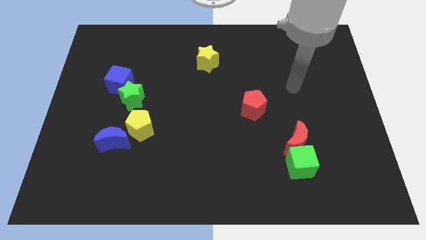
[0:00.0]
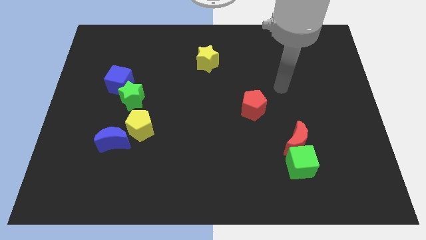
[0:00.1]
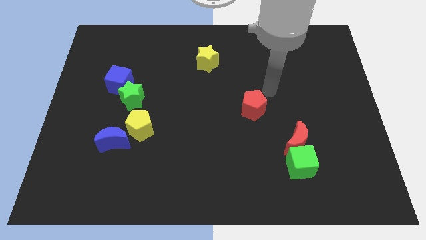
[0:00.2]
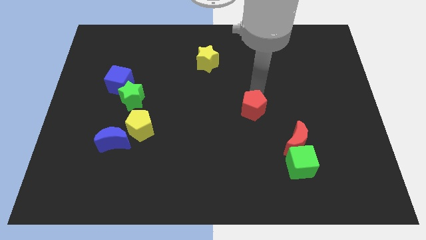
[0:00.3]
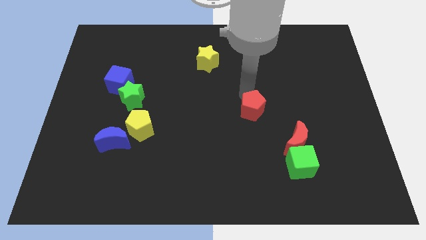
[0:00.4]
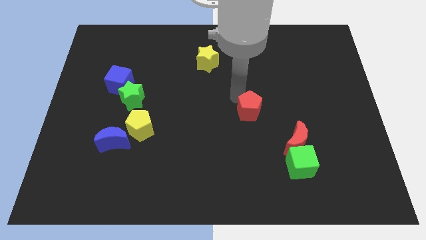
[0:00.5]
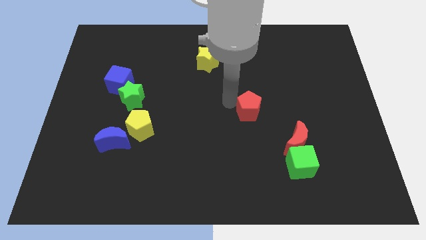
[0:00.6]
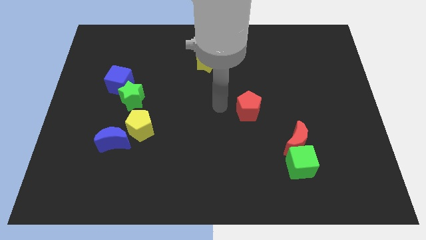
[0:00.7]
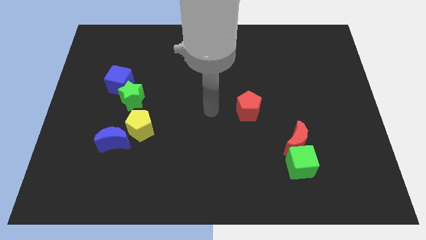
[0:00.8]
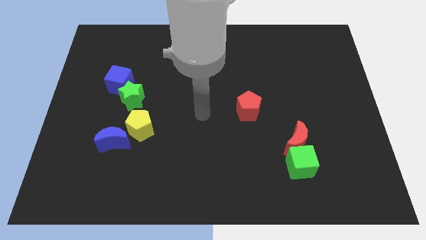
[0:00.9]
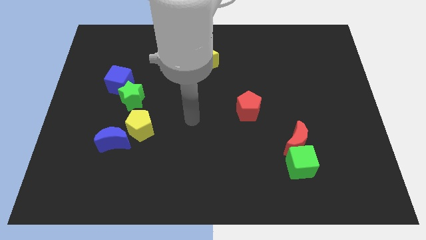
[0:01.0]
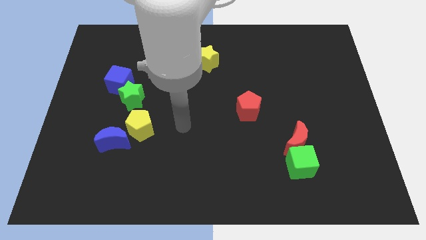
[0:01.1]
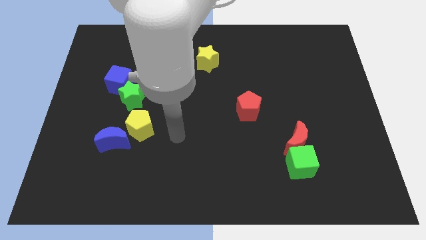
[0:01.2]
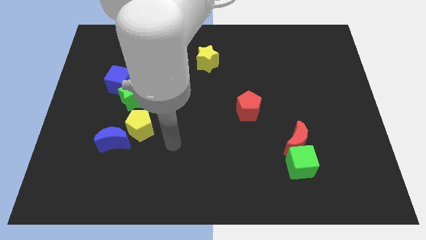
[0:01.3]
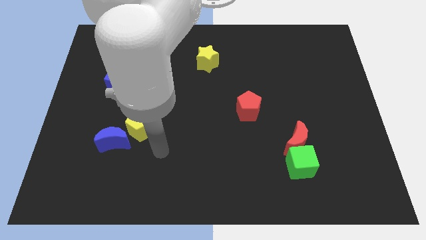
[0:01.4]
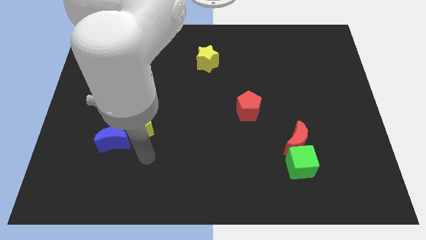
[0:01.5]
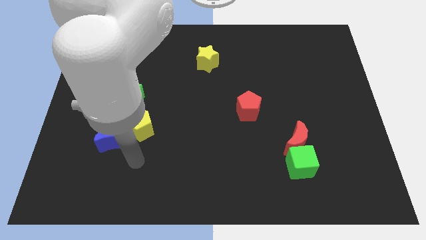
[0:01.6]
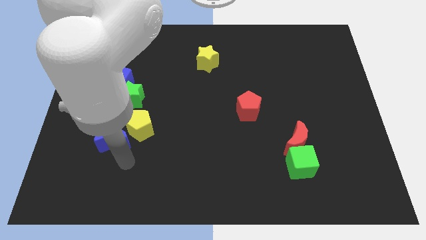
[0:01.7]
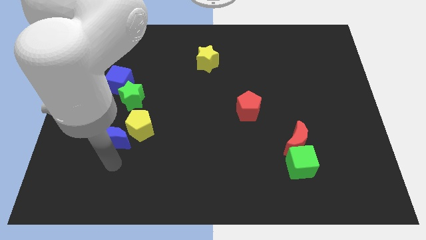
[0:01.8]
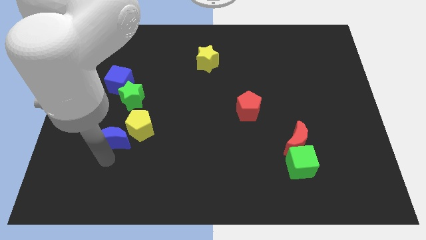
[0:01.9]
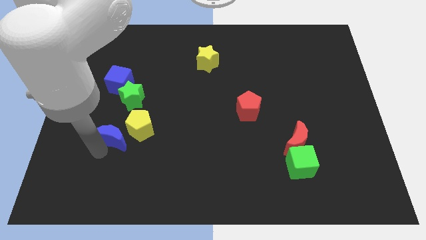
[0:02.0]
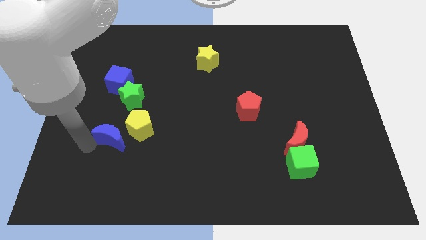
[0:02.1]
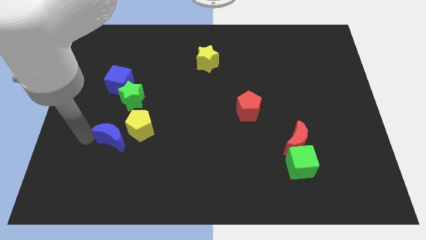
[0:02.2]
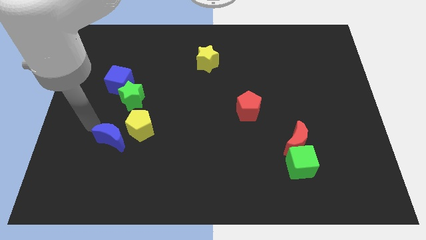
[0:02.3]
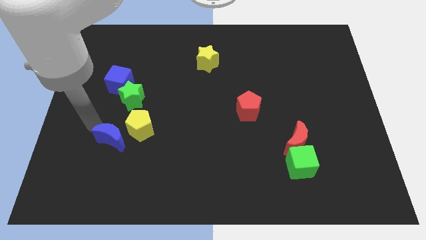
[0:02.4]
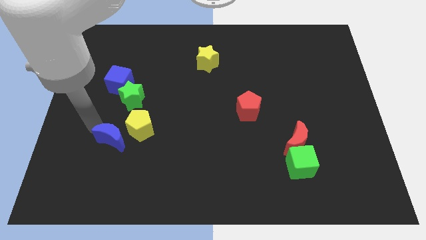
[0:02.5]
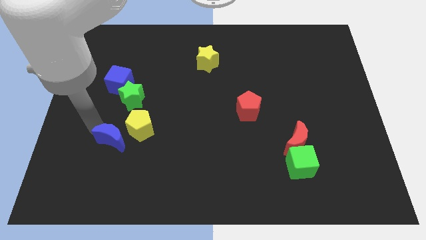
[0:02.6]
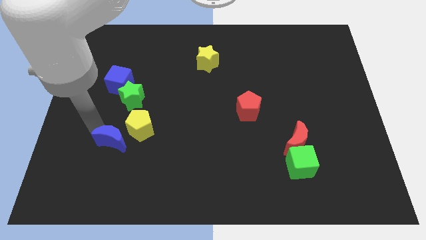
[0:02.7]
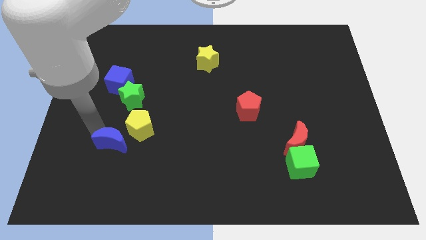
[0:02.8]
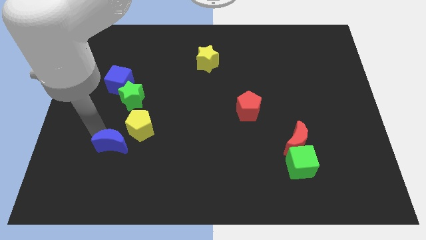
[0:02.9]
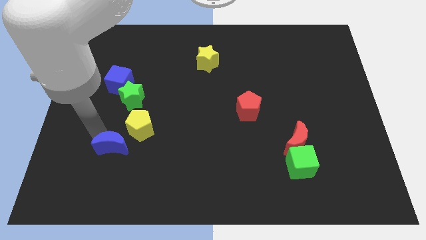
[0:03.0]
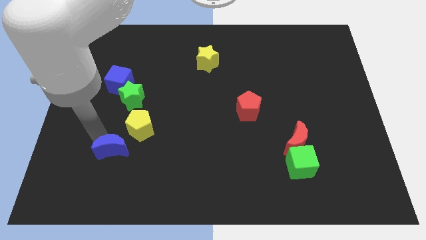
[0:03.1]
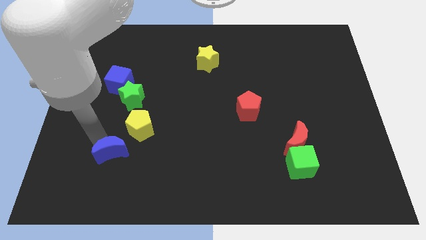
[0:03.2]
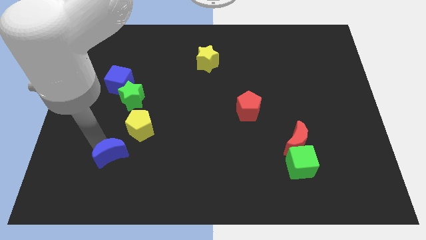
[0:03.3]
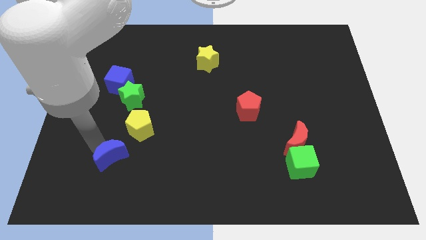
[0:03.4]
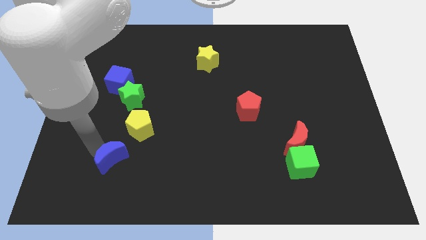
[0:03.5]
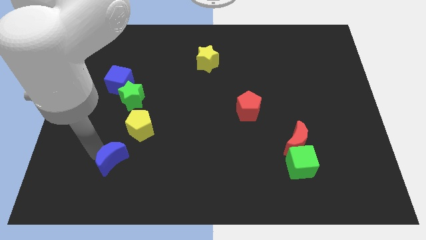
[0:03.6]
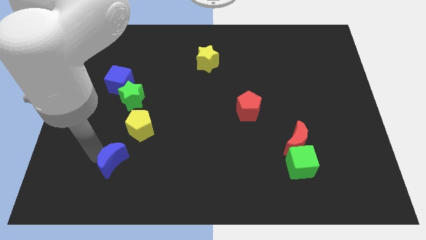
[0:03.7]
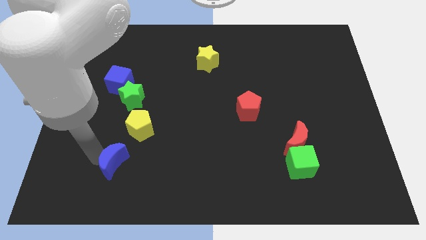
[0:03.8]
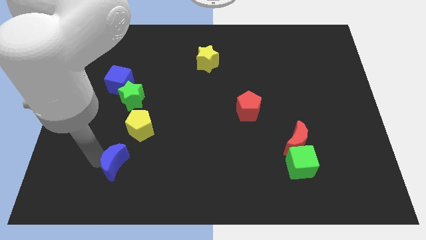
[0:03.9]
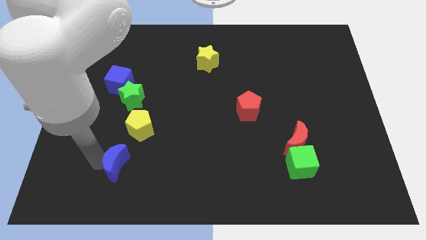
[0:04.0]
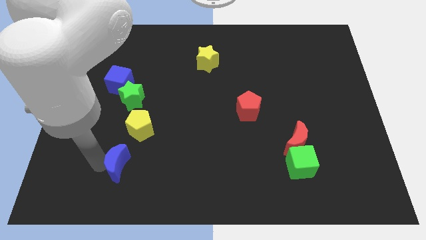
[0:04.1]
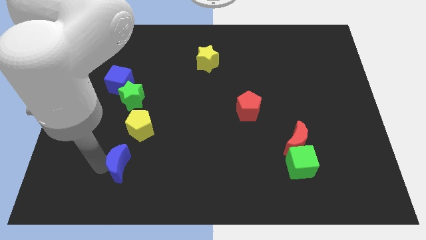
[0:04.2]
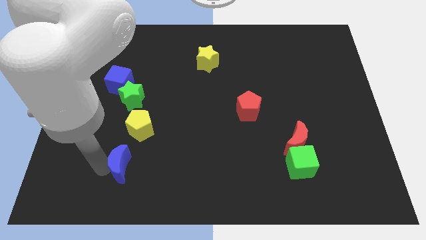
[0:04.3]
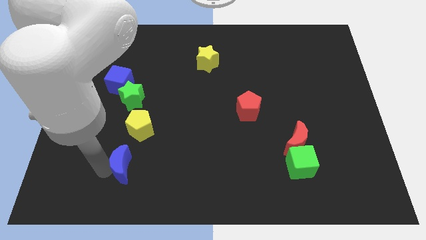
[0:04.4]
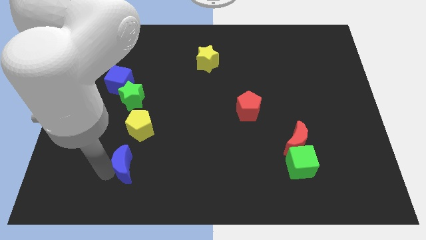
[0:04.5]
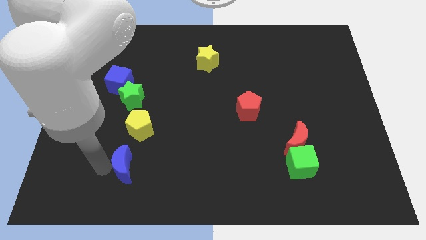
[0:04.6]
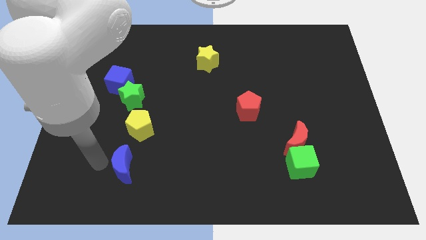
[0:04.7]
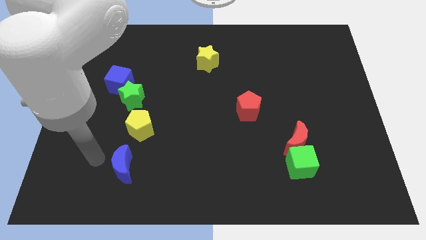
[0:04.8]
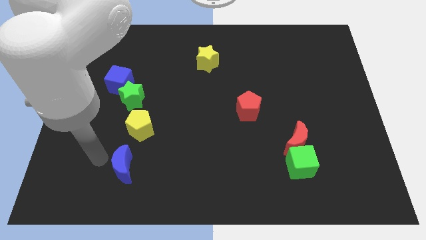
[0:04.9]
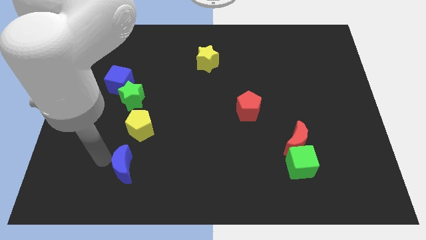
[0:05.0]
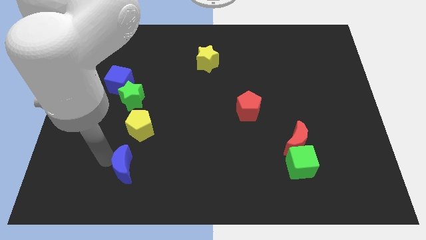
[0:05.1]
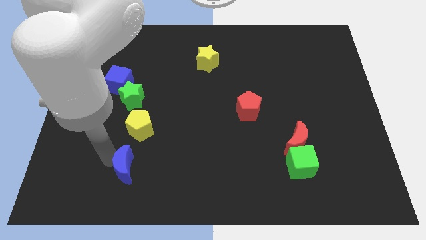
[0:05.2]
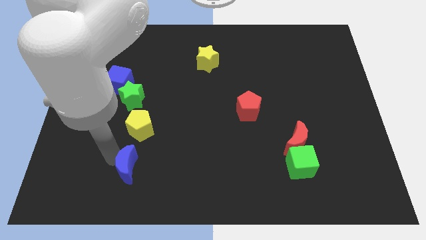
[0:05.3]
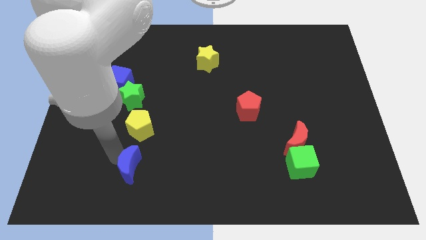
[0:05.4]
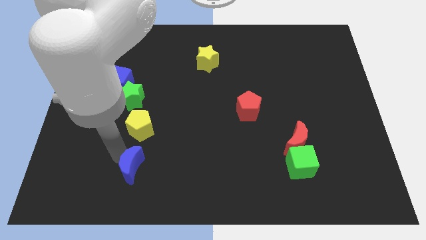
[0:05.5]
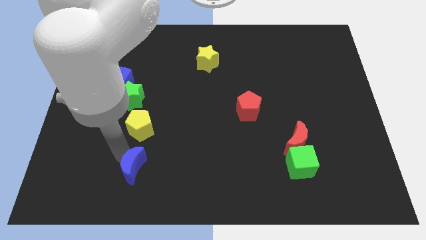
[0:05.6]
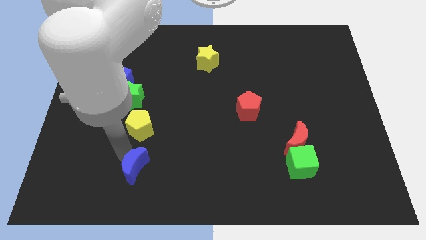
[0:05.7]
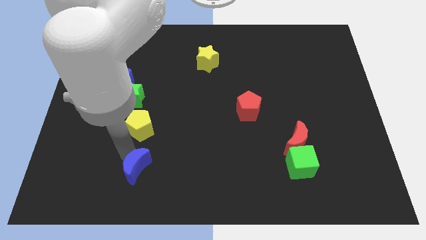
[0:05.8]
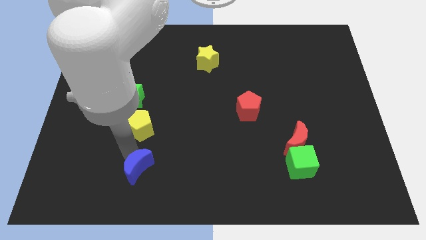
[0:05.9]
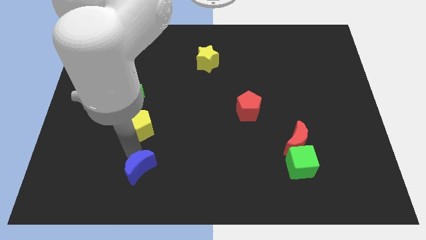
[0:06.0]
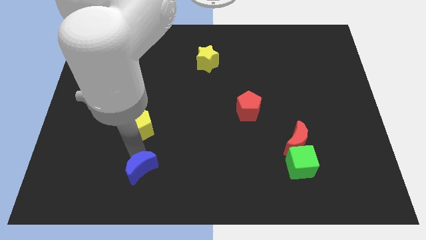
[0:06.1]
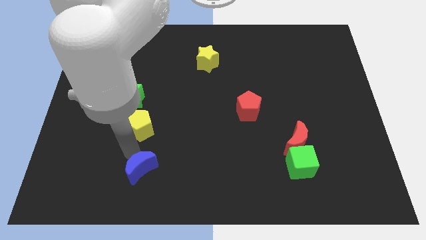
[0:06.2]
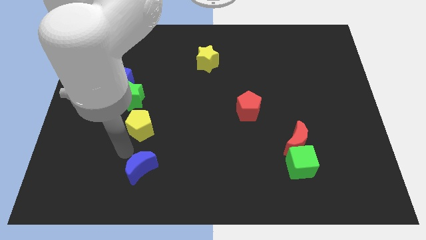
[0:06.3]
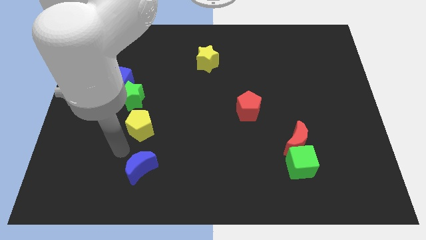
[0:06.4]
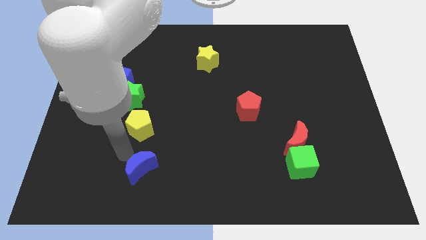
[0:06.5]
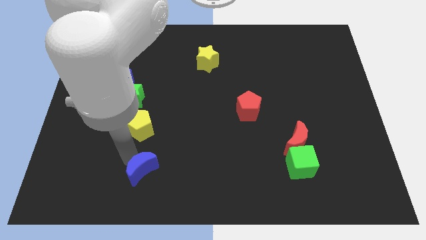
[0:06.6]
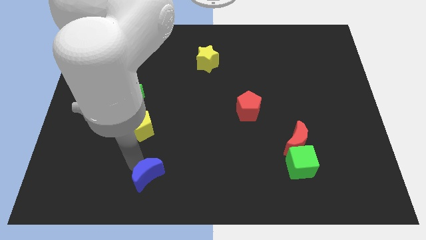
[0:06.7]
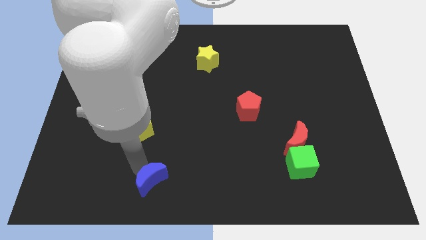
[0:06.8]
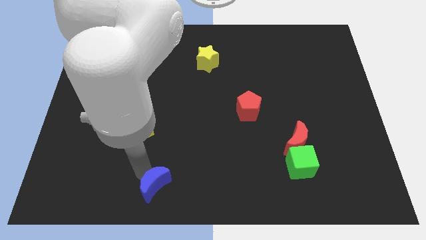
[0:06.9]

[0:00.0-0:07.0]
slide the blue moon to the bottom
